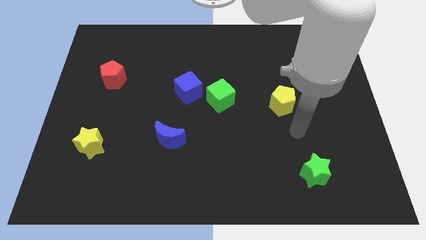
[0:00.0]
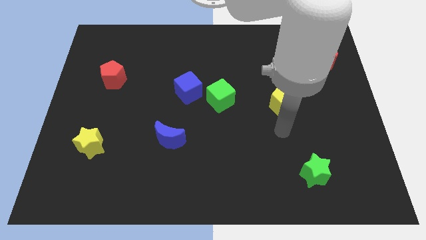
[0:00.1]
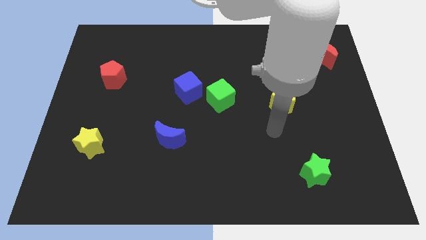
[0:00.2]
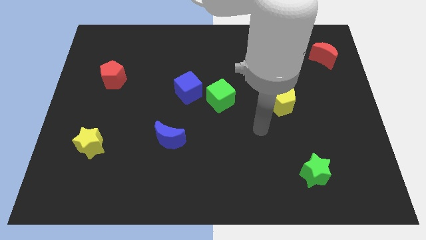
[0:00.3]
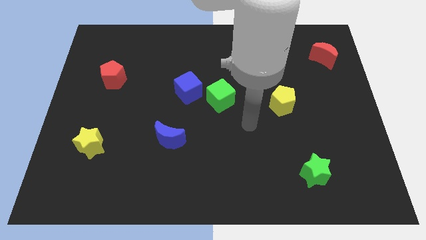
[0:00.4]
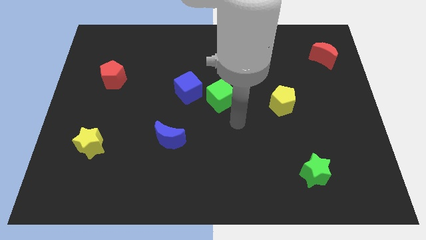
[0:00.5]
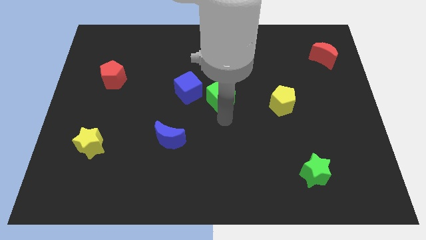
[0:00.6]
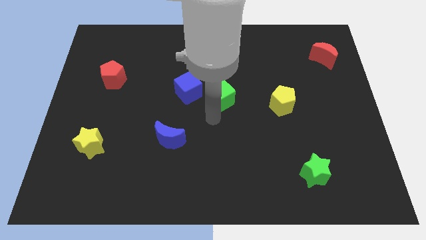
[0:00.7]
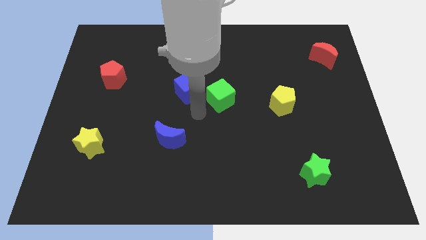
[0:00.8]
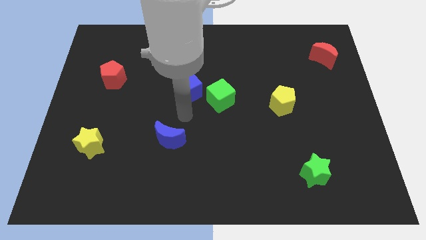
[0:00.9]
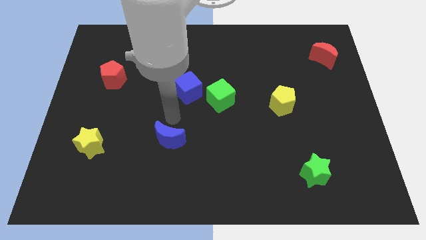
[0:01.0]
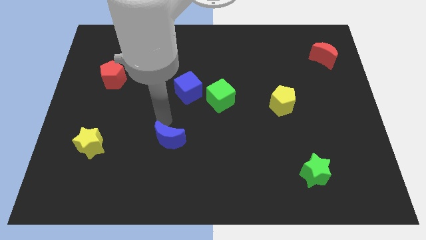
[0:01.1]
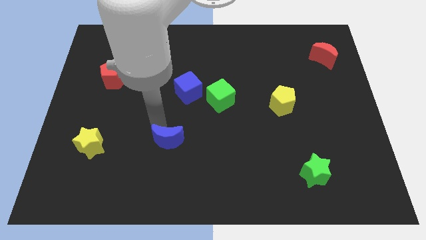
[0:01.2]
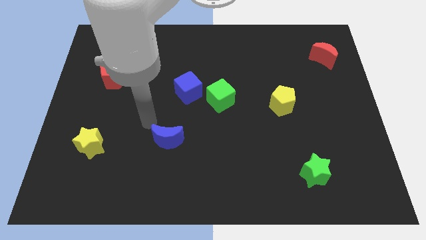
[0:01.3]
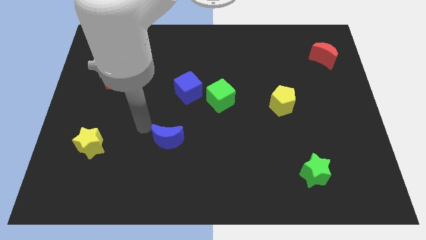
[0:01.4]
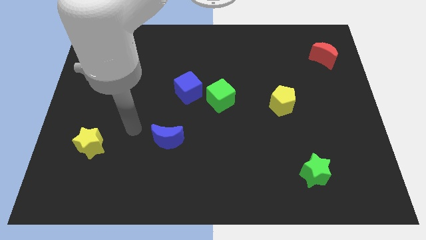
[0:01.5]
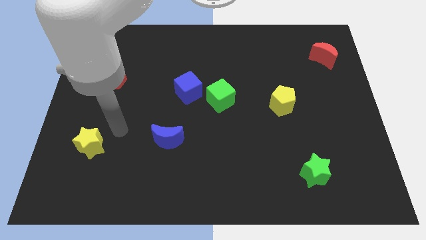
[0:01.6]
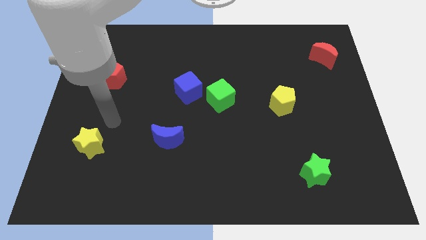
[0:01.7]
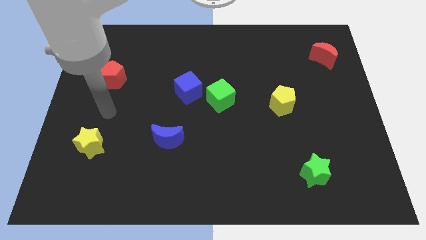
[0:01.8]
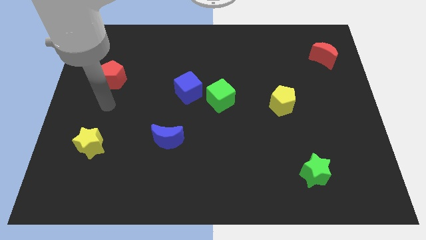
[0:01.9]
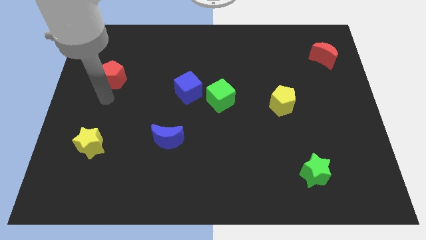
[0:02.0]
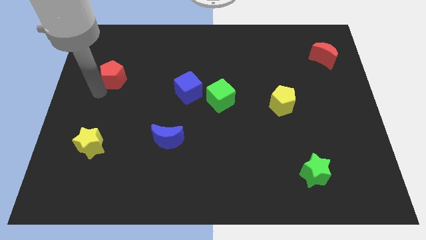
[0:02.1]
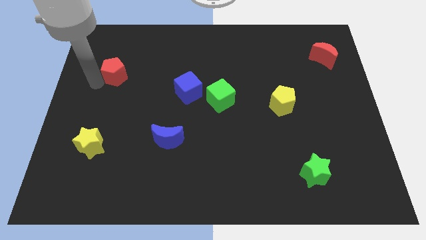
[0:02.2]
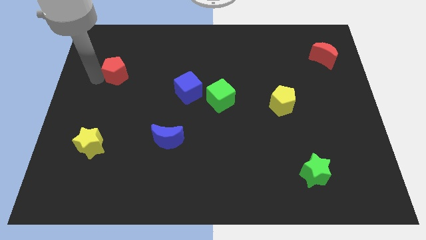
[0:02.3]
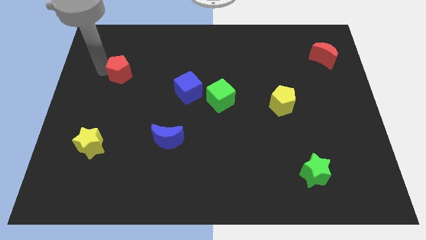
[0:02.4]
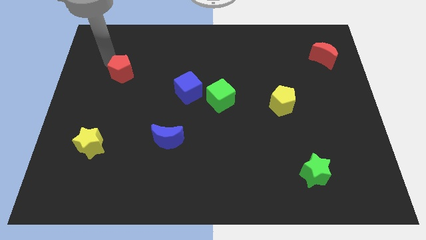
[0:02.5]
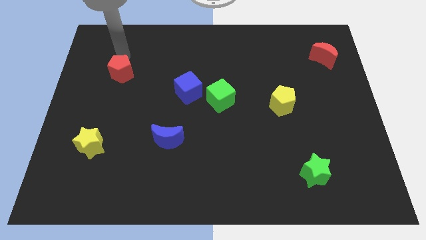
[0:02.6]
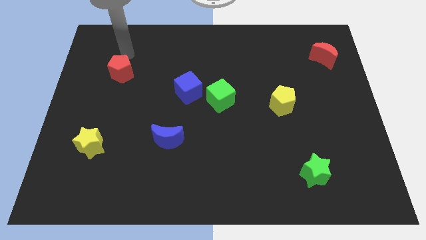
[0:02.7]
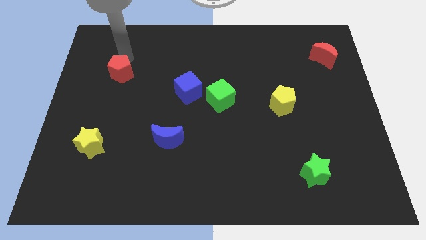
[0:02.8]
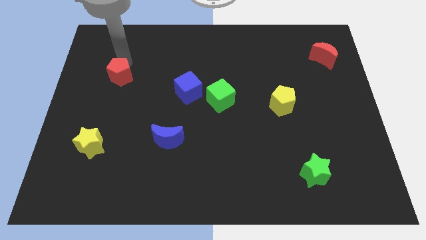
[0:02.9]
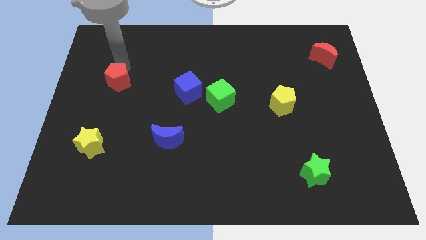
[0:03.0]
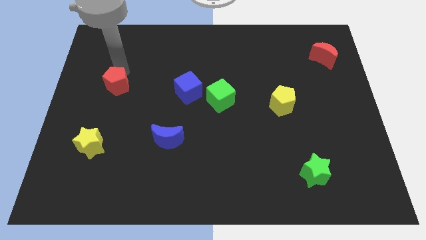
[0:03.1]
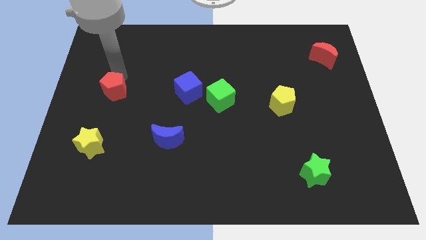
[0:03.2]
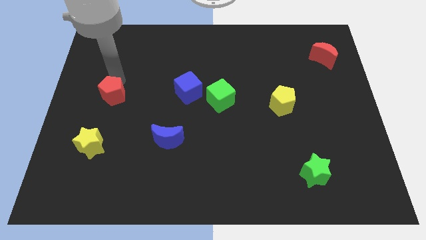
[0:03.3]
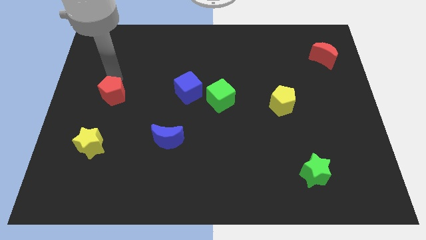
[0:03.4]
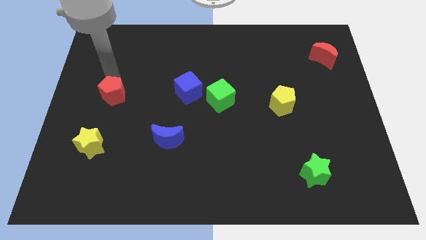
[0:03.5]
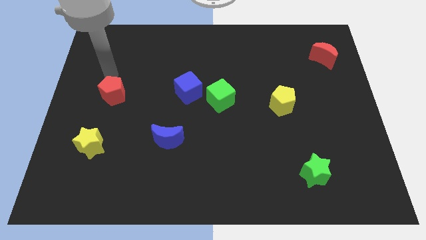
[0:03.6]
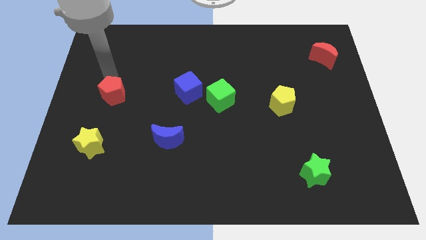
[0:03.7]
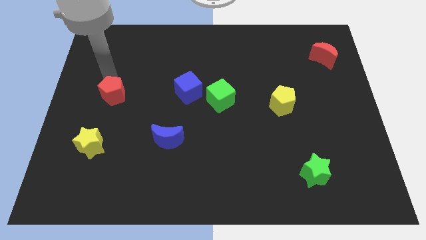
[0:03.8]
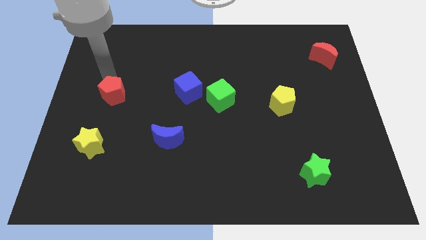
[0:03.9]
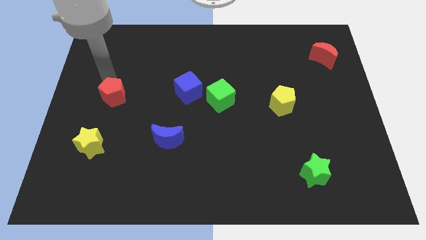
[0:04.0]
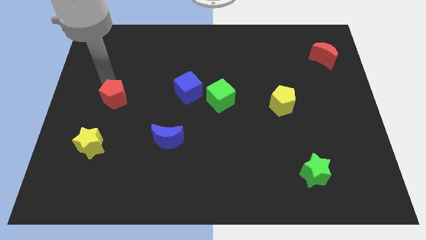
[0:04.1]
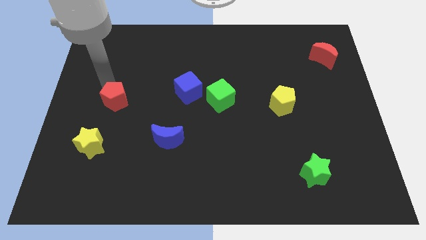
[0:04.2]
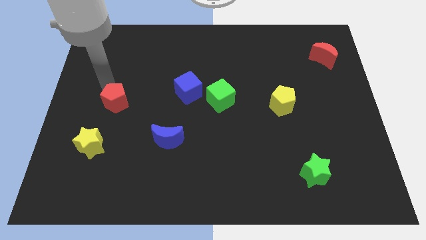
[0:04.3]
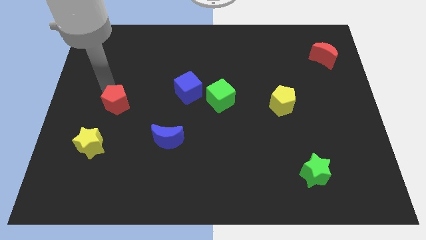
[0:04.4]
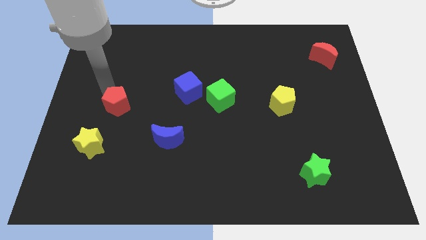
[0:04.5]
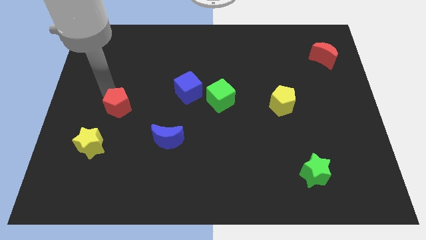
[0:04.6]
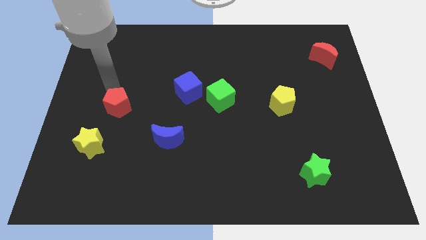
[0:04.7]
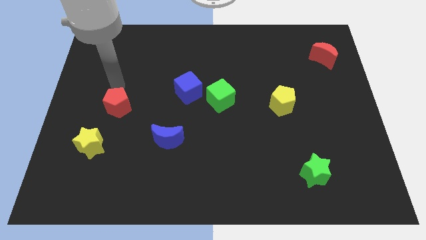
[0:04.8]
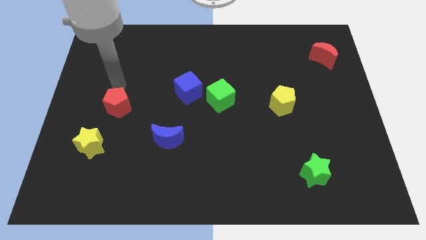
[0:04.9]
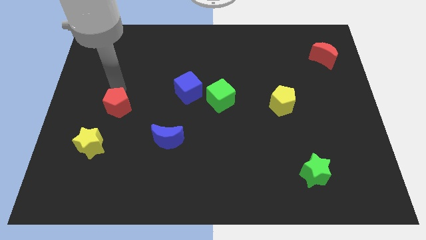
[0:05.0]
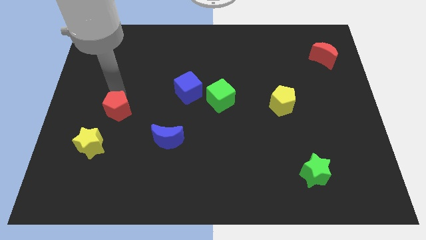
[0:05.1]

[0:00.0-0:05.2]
slide the red pentagon to the top right side of the yellow star

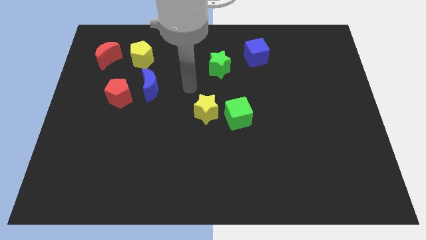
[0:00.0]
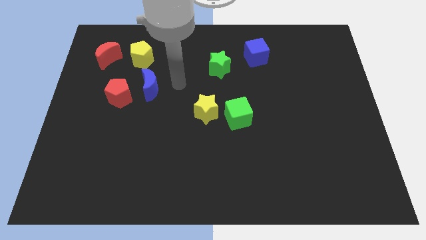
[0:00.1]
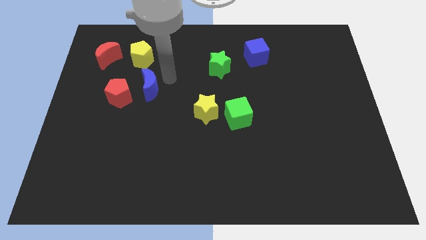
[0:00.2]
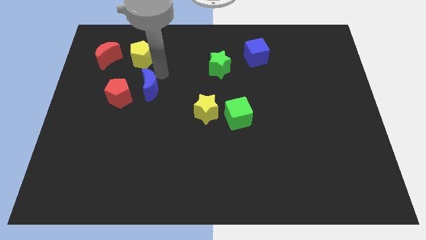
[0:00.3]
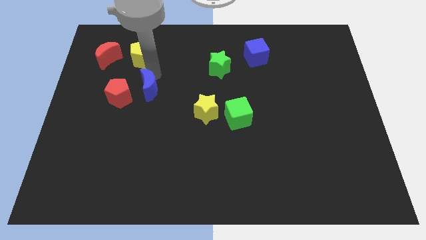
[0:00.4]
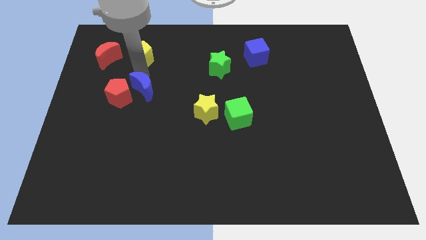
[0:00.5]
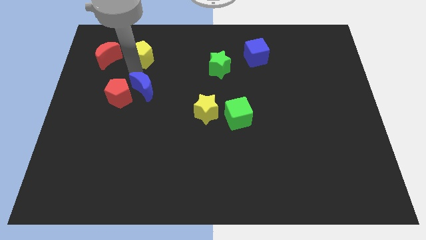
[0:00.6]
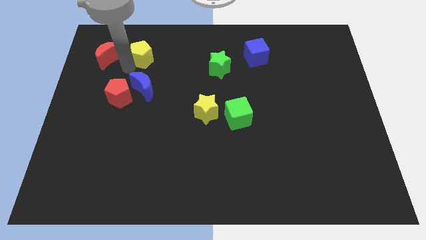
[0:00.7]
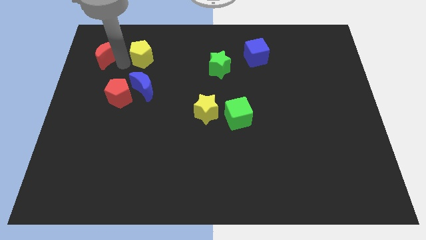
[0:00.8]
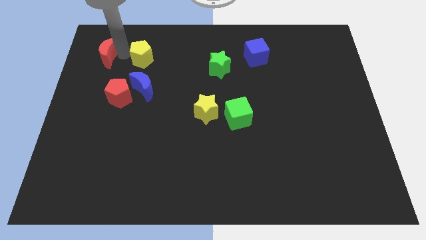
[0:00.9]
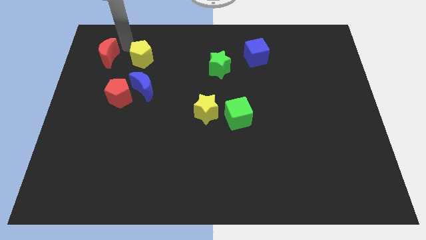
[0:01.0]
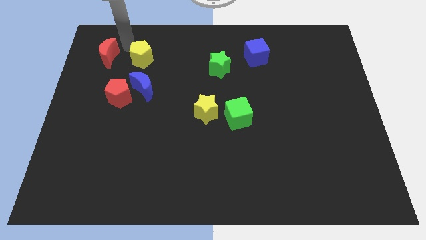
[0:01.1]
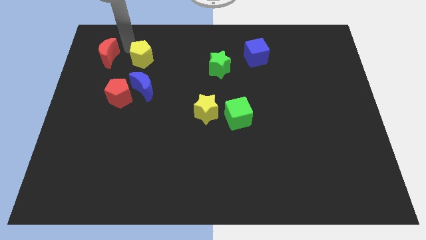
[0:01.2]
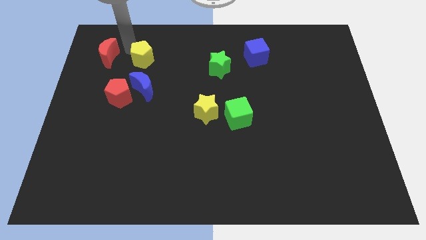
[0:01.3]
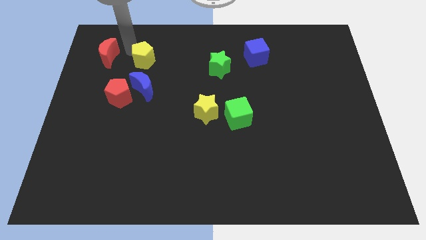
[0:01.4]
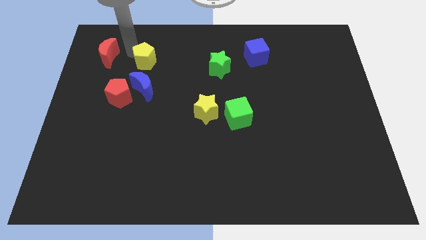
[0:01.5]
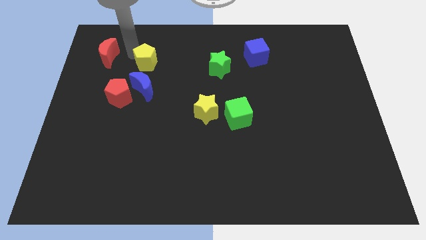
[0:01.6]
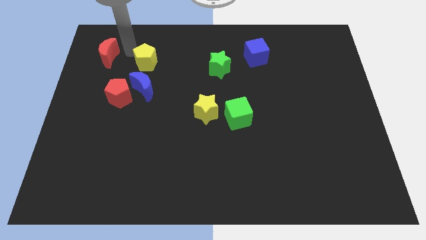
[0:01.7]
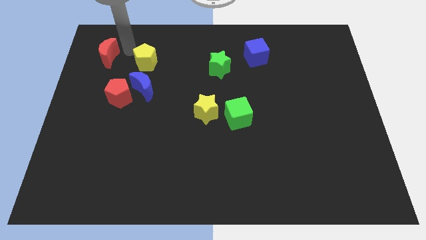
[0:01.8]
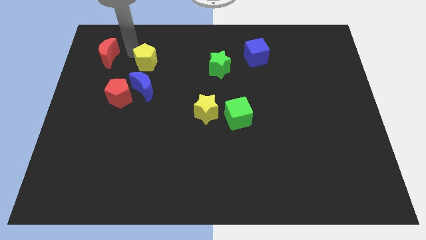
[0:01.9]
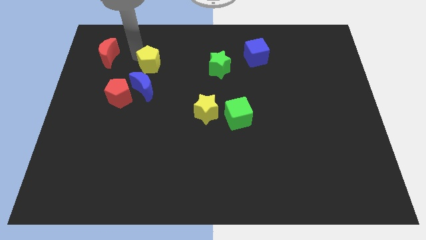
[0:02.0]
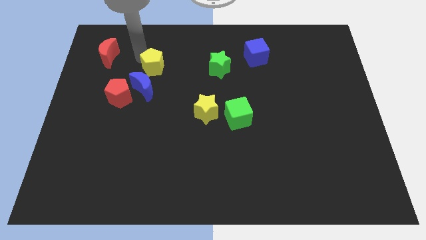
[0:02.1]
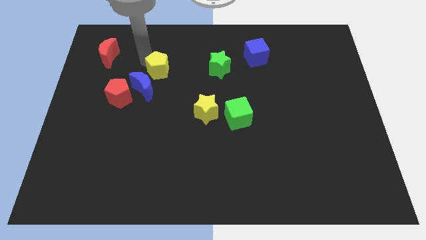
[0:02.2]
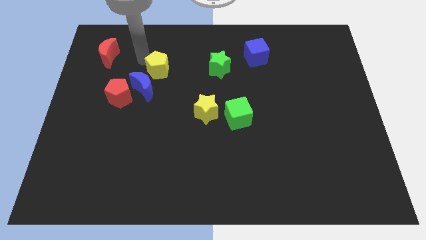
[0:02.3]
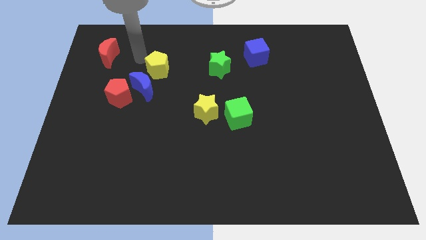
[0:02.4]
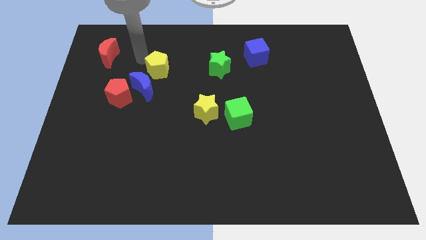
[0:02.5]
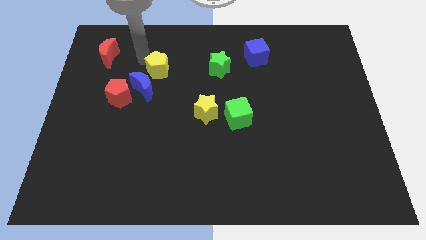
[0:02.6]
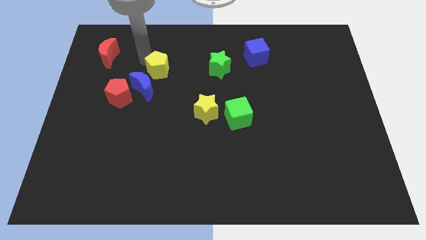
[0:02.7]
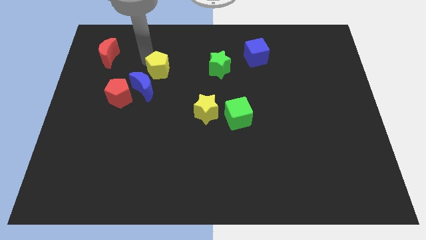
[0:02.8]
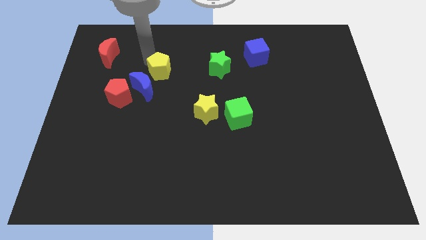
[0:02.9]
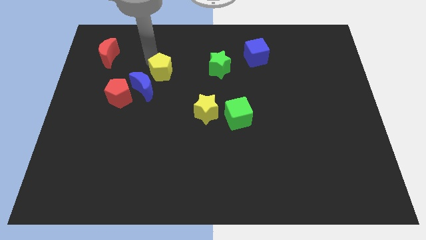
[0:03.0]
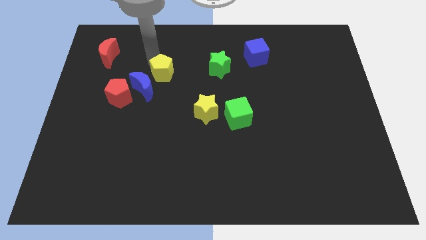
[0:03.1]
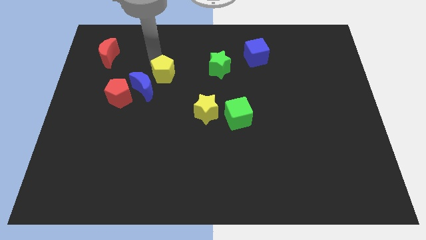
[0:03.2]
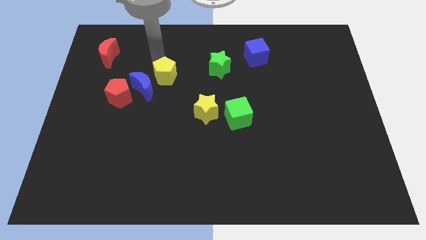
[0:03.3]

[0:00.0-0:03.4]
move the yellow pentagon to the right of the blue moon
